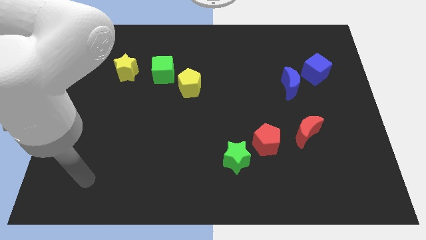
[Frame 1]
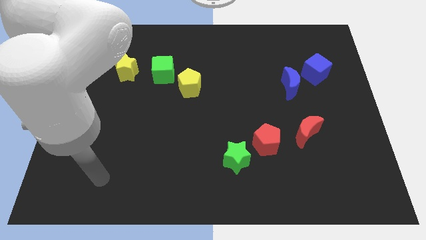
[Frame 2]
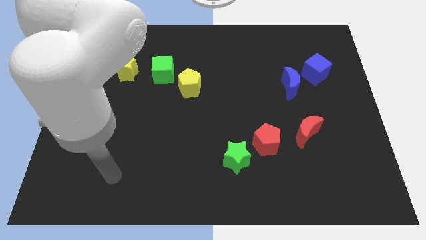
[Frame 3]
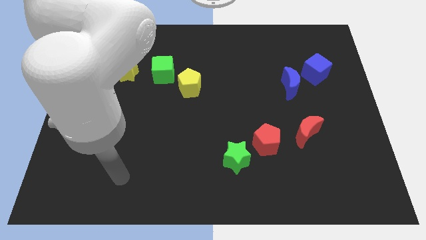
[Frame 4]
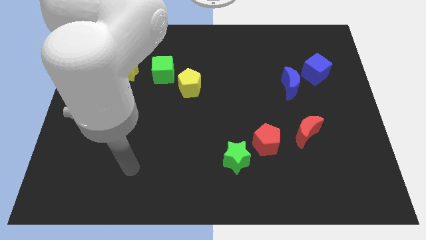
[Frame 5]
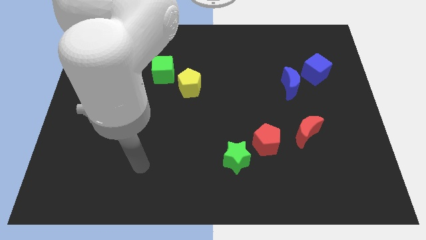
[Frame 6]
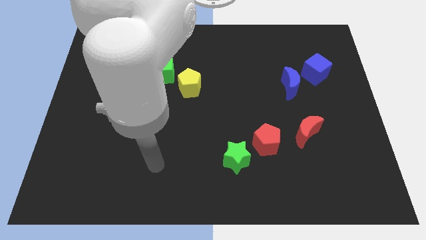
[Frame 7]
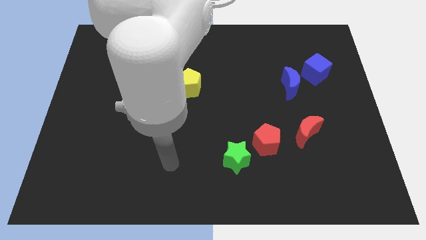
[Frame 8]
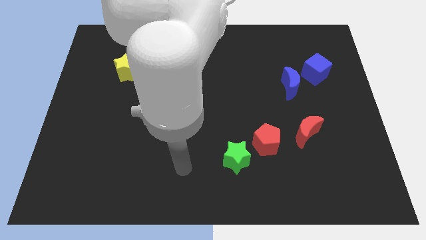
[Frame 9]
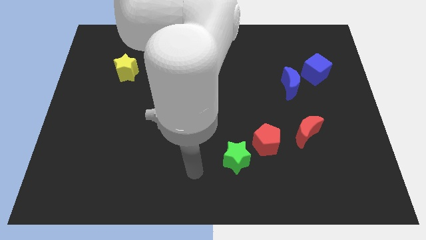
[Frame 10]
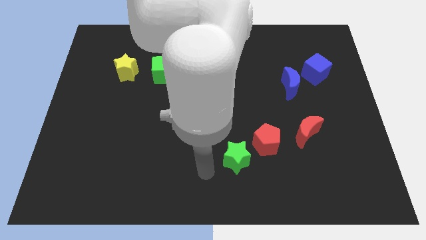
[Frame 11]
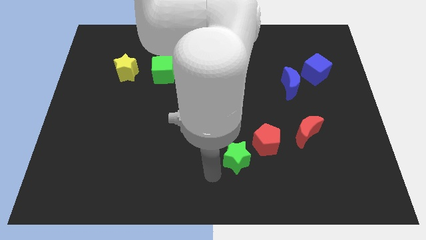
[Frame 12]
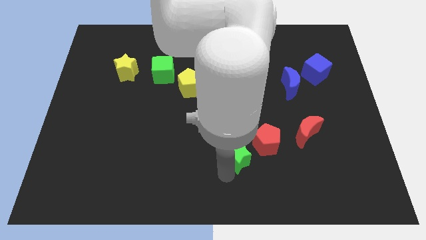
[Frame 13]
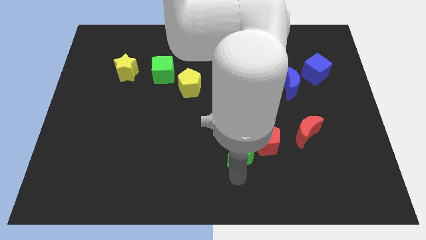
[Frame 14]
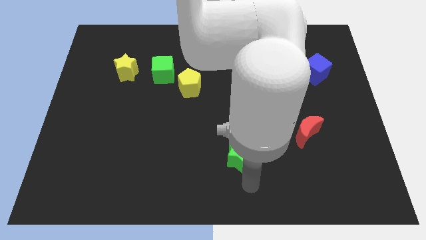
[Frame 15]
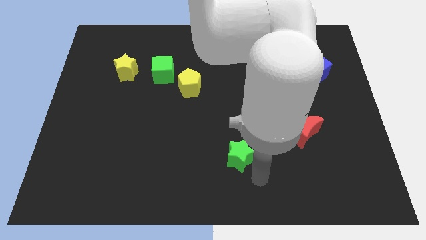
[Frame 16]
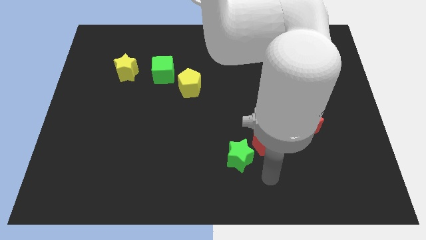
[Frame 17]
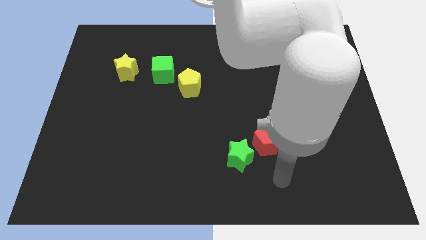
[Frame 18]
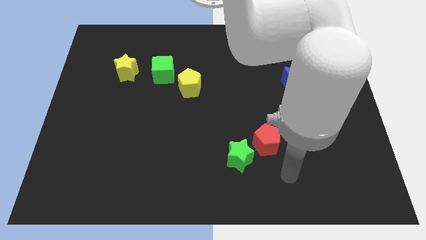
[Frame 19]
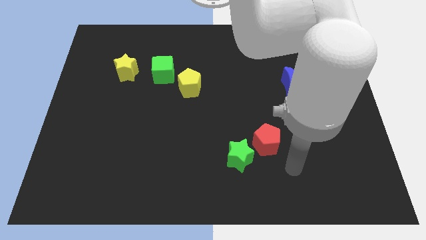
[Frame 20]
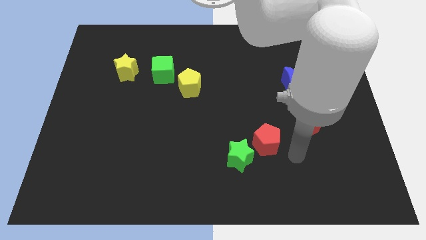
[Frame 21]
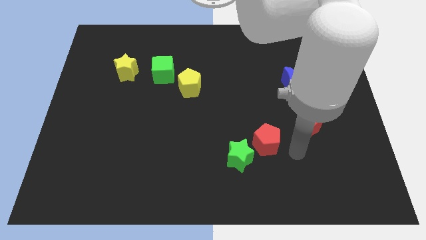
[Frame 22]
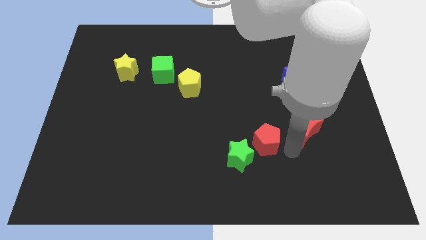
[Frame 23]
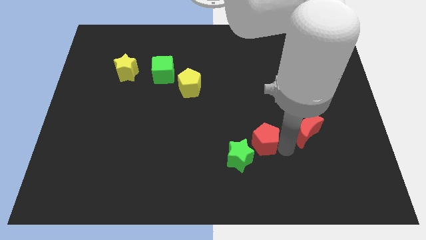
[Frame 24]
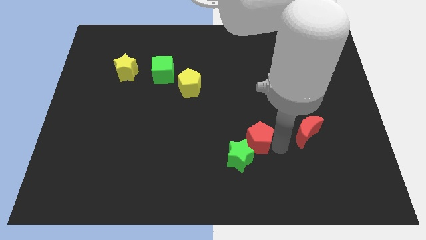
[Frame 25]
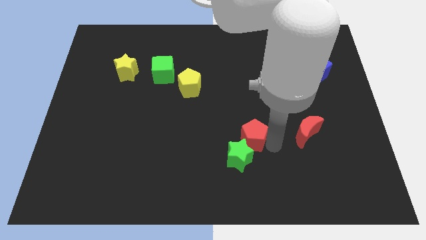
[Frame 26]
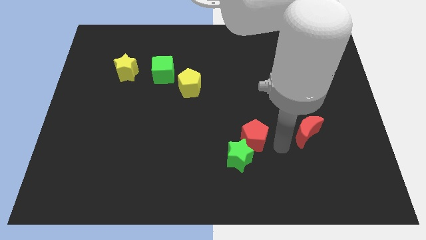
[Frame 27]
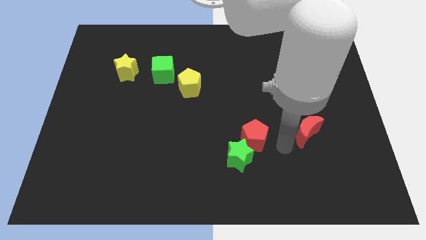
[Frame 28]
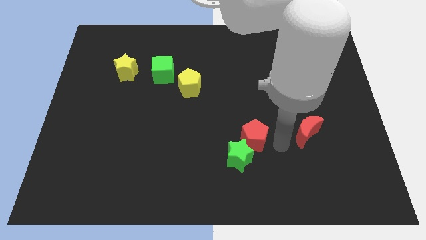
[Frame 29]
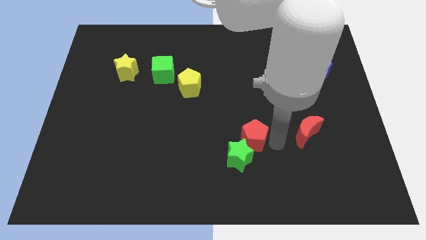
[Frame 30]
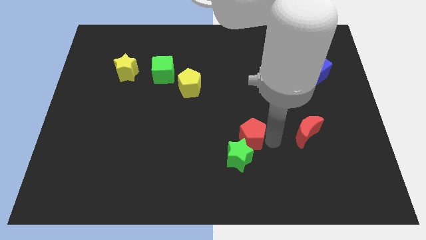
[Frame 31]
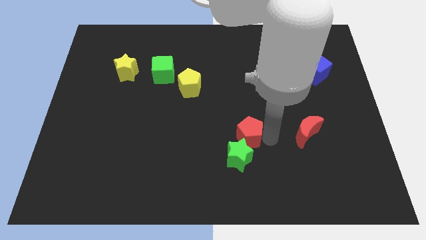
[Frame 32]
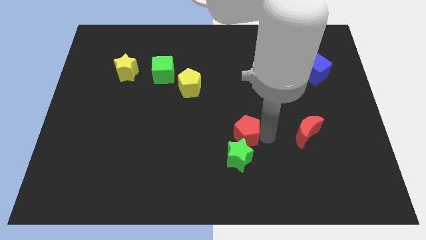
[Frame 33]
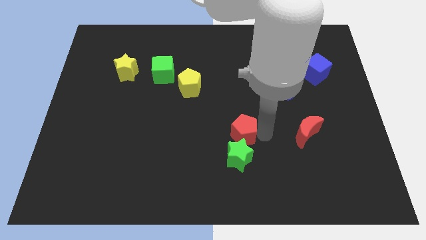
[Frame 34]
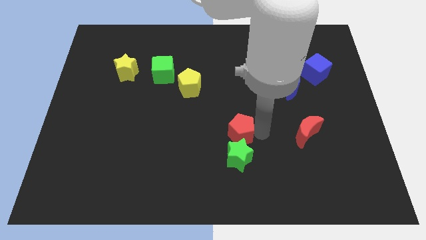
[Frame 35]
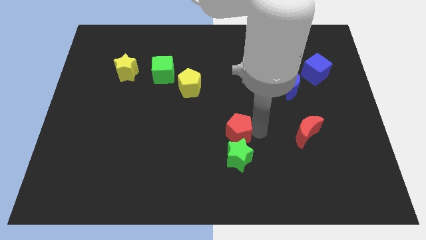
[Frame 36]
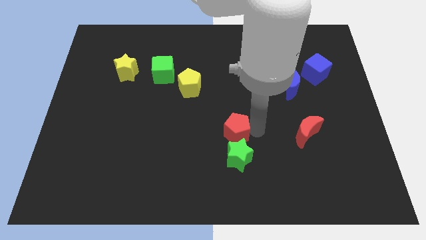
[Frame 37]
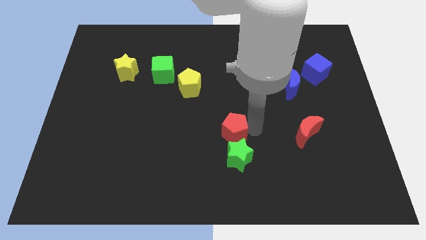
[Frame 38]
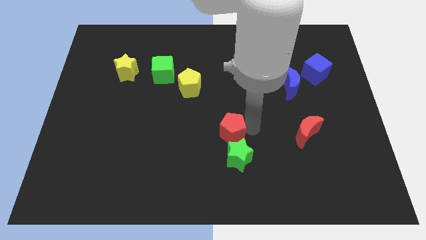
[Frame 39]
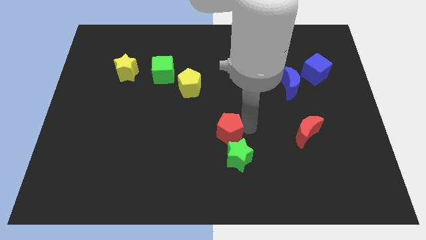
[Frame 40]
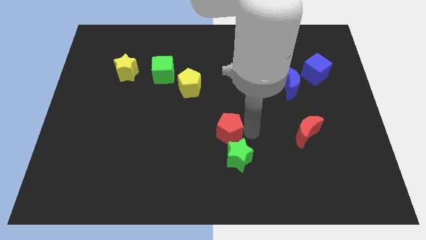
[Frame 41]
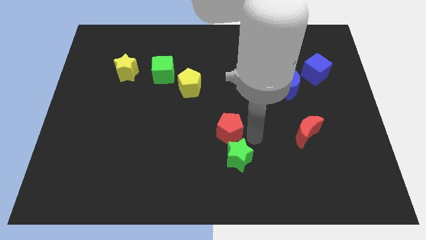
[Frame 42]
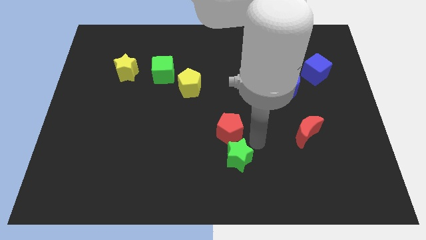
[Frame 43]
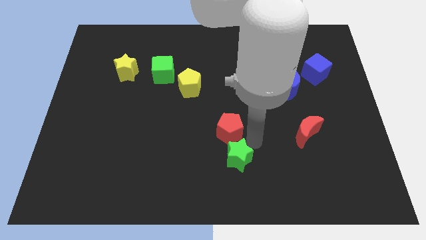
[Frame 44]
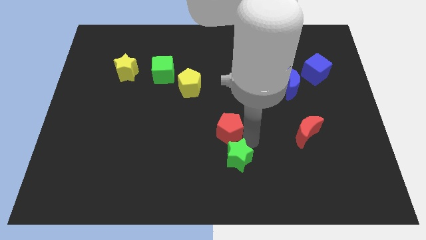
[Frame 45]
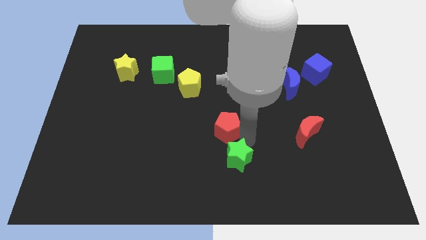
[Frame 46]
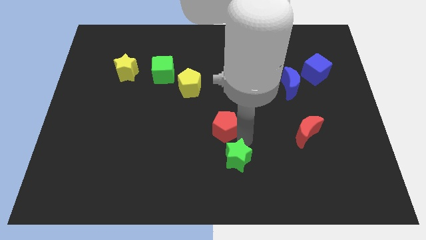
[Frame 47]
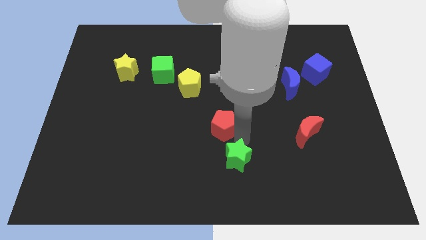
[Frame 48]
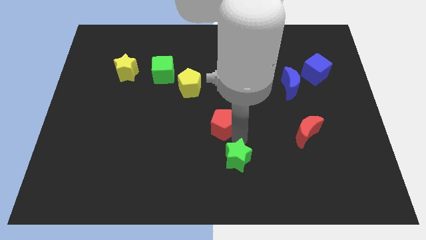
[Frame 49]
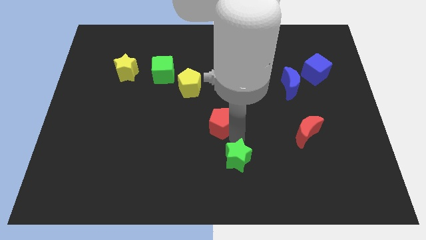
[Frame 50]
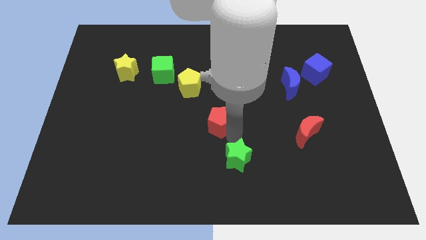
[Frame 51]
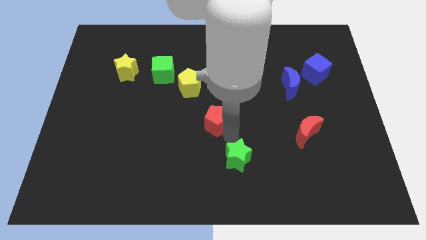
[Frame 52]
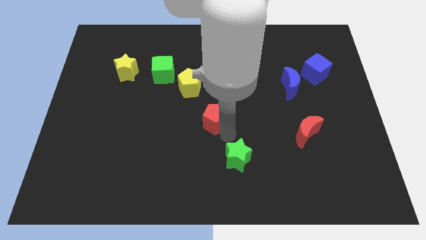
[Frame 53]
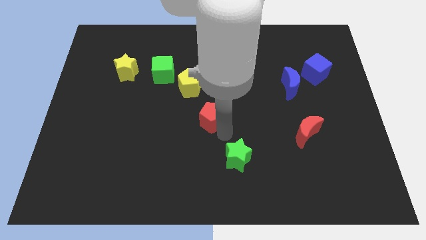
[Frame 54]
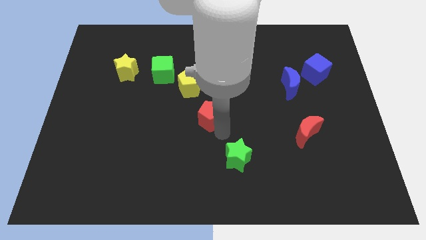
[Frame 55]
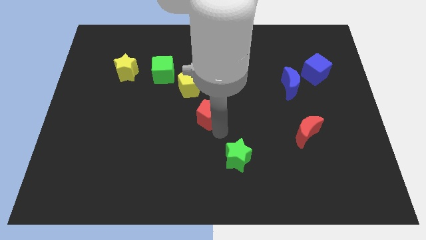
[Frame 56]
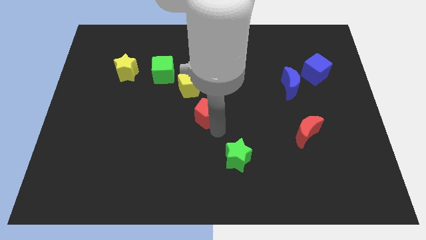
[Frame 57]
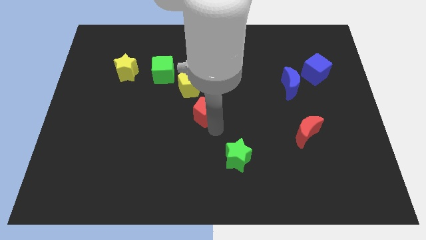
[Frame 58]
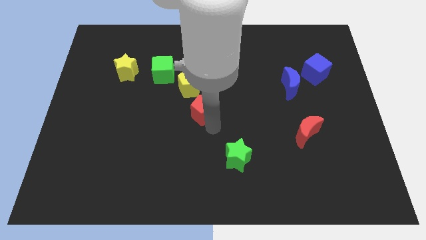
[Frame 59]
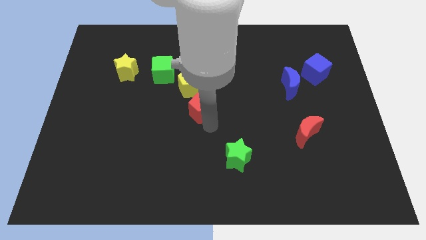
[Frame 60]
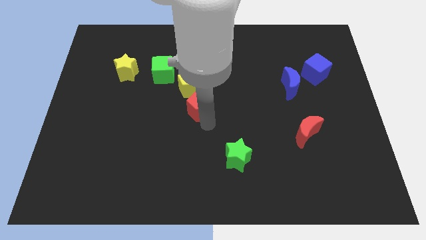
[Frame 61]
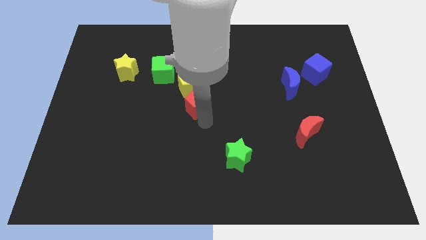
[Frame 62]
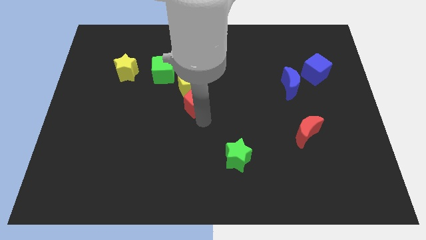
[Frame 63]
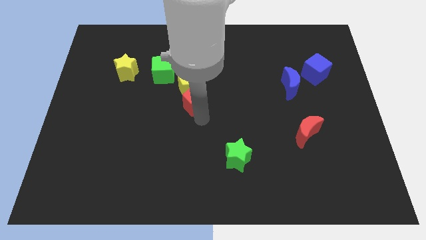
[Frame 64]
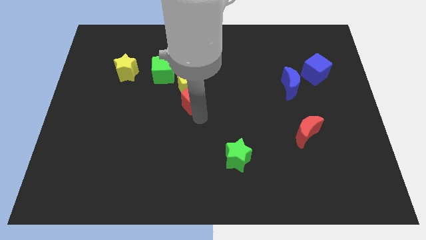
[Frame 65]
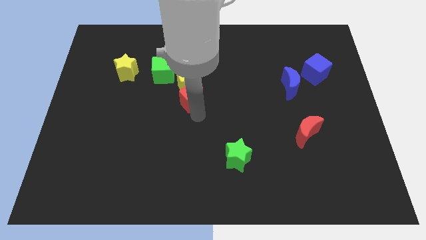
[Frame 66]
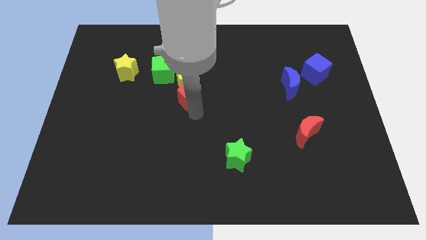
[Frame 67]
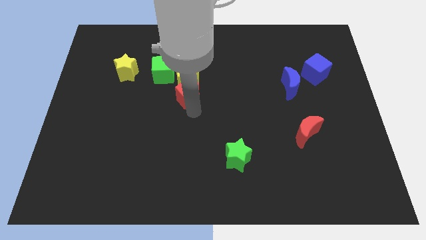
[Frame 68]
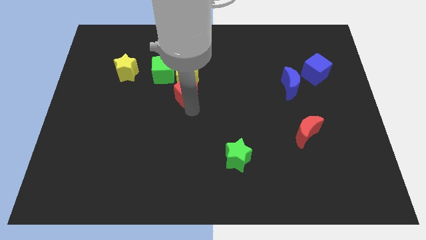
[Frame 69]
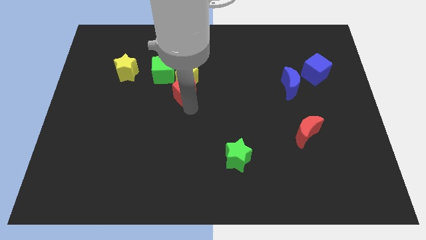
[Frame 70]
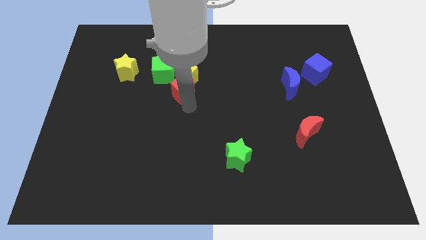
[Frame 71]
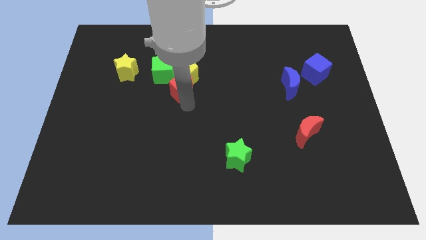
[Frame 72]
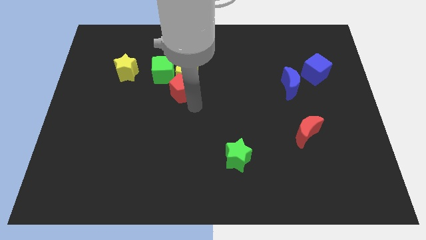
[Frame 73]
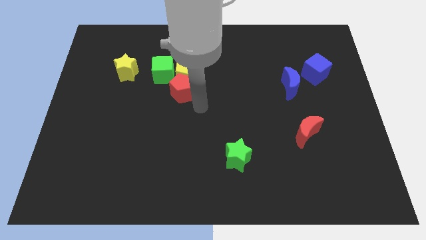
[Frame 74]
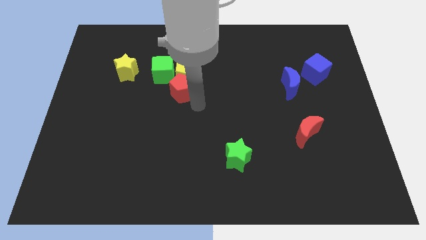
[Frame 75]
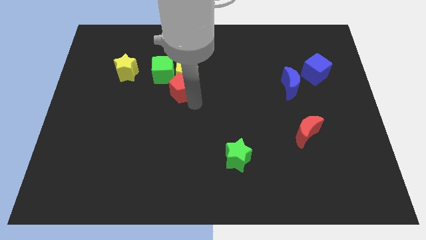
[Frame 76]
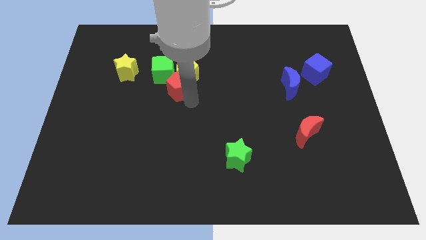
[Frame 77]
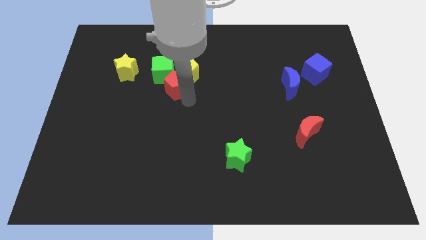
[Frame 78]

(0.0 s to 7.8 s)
slide the red pentagon towards the green cube
